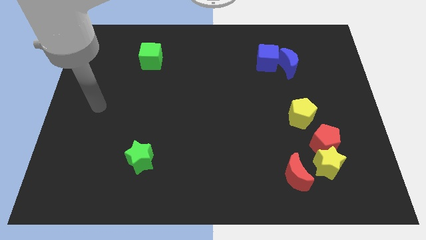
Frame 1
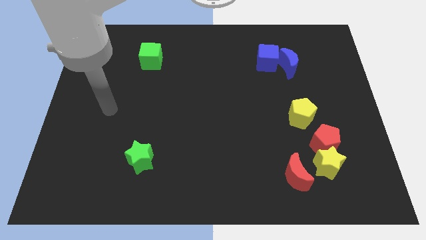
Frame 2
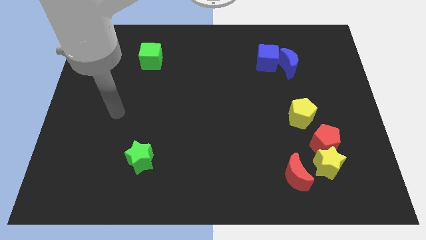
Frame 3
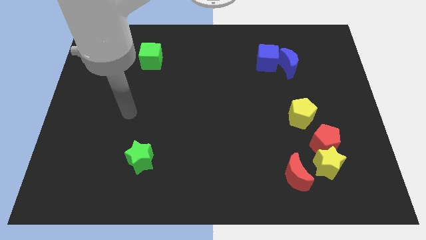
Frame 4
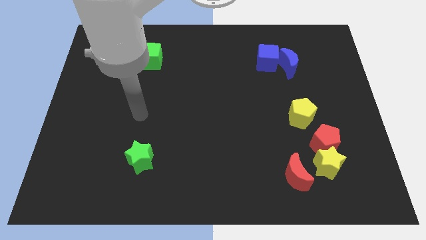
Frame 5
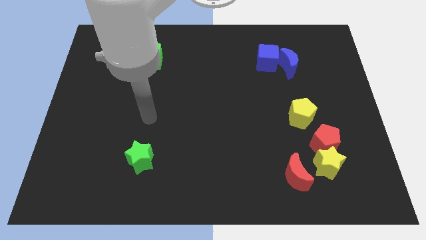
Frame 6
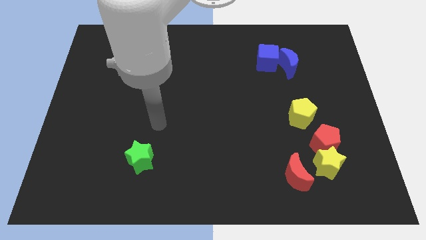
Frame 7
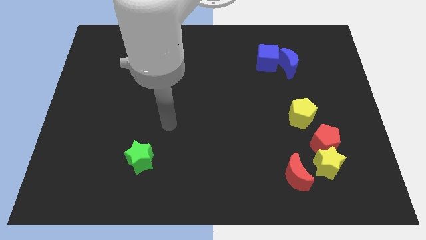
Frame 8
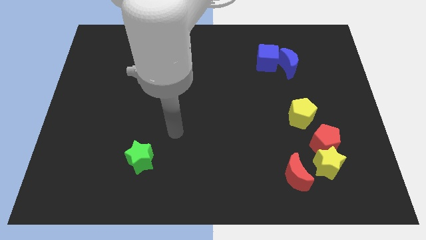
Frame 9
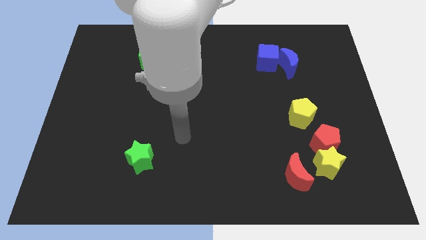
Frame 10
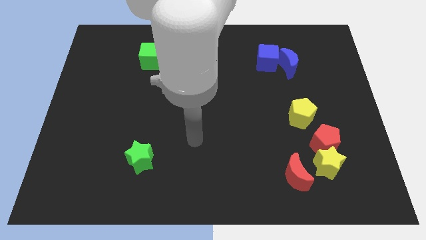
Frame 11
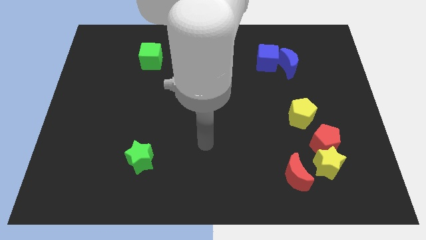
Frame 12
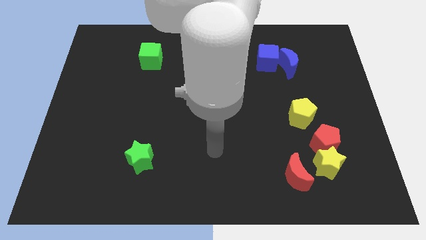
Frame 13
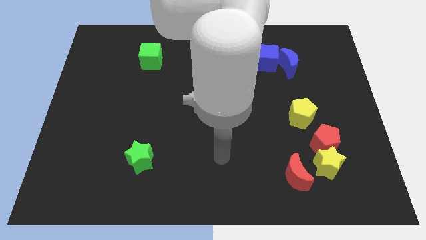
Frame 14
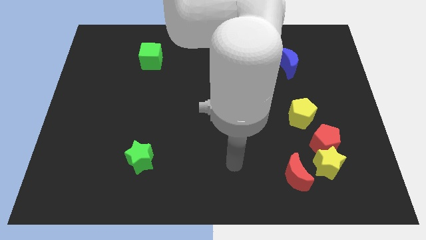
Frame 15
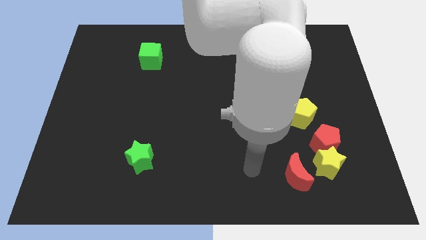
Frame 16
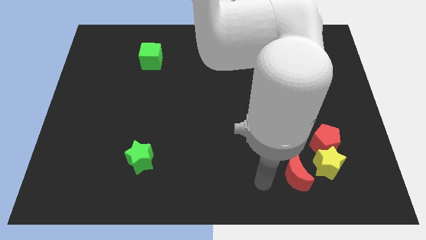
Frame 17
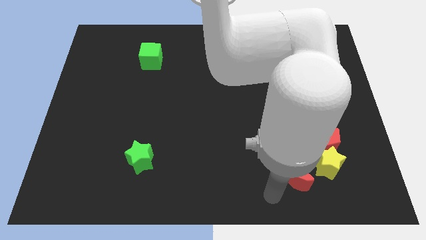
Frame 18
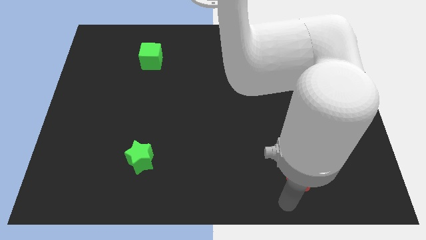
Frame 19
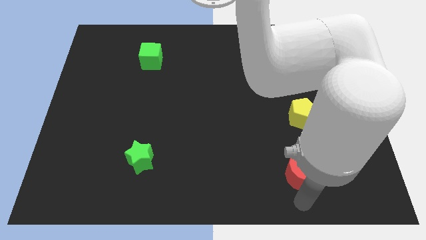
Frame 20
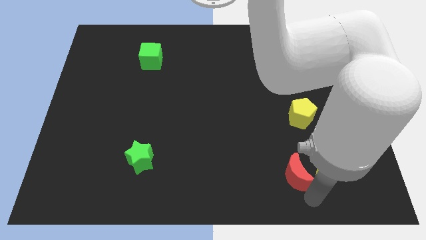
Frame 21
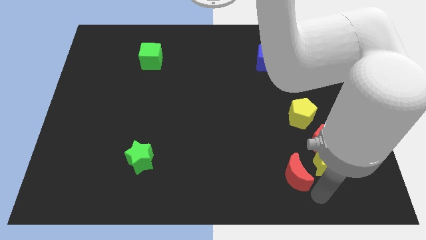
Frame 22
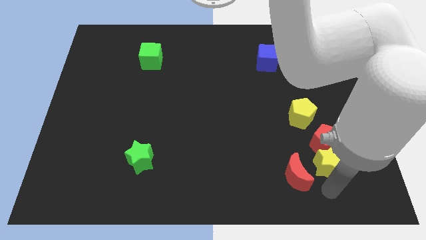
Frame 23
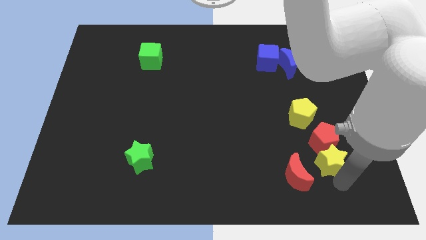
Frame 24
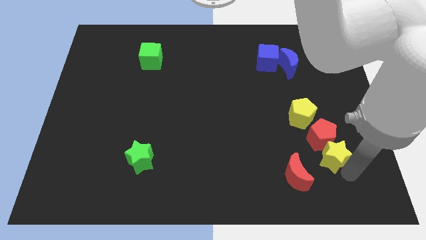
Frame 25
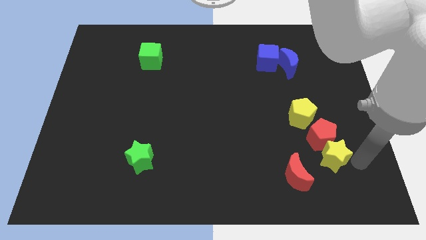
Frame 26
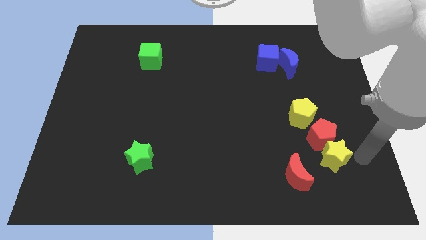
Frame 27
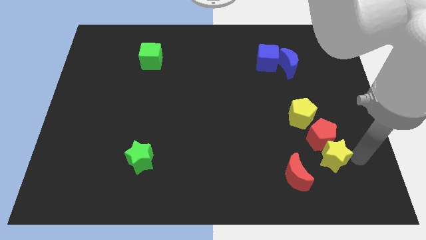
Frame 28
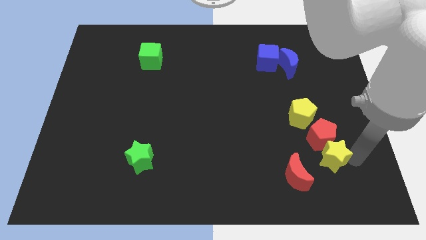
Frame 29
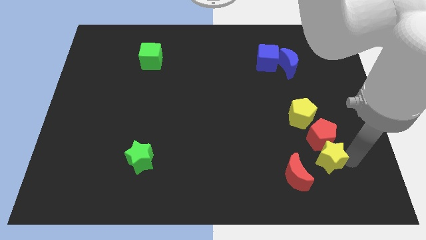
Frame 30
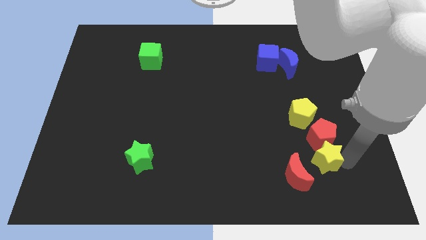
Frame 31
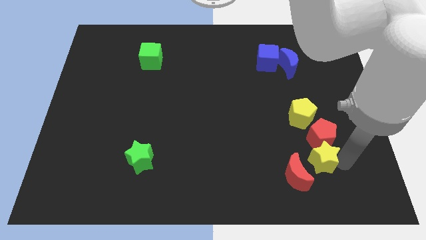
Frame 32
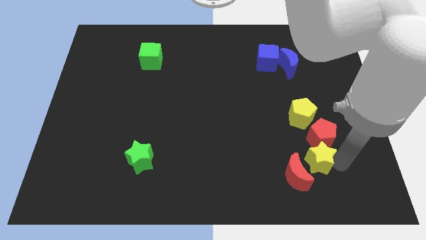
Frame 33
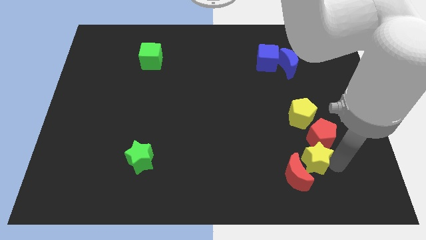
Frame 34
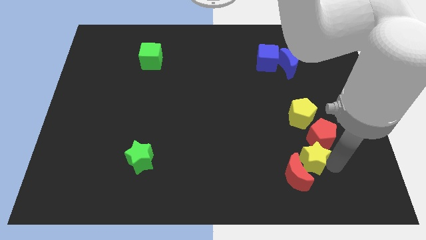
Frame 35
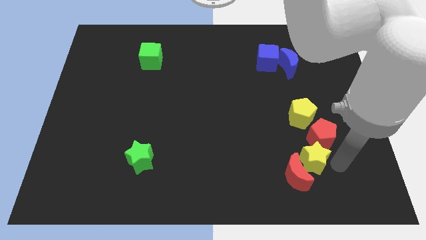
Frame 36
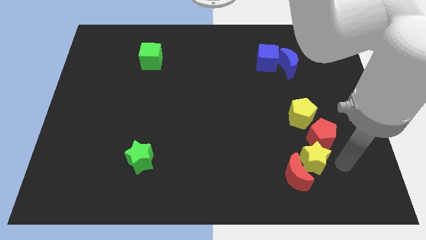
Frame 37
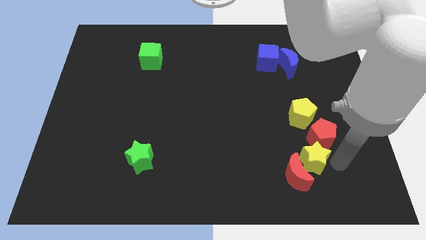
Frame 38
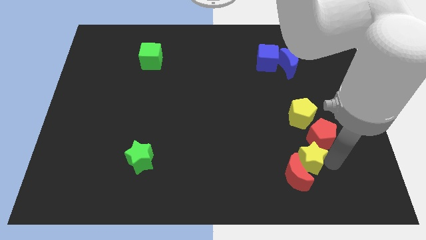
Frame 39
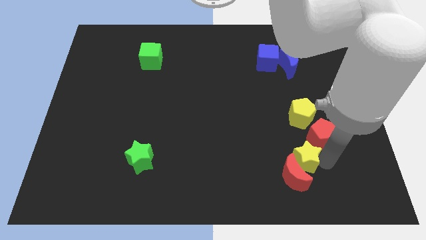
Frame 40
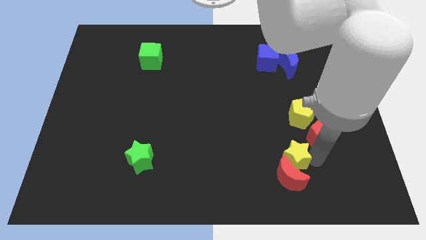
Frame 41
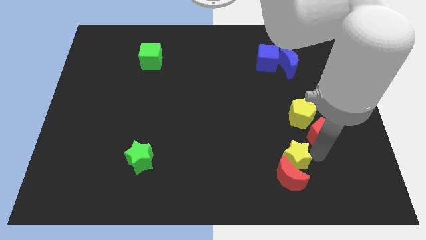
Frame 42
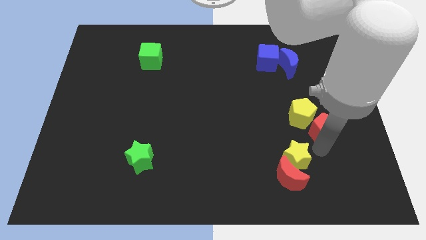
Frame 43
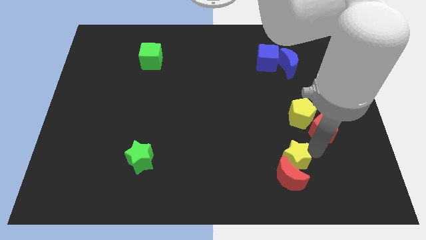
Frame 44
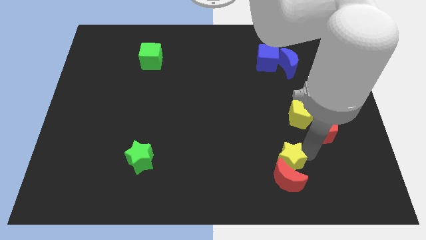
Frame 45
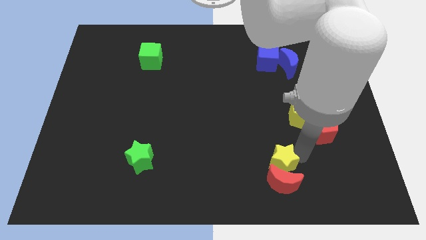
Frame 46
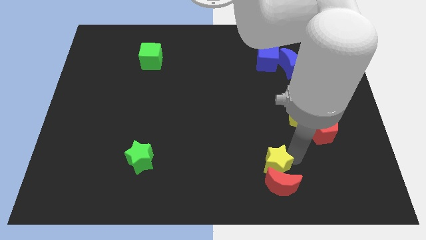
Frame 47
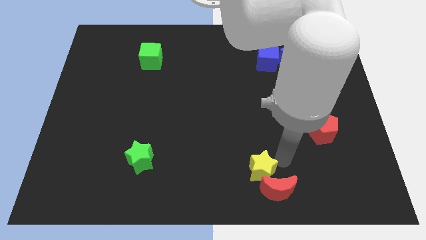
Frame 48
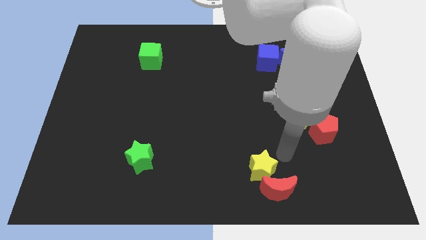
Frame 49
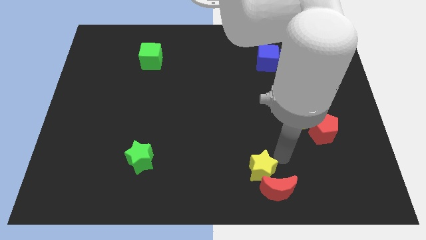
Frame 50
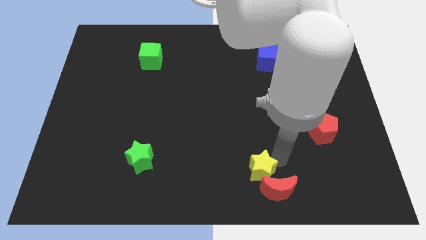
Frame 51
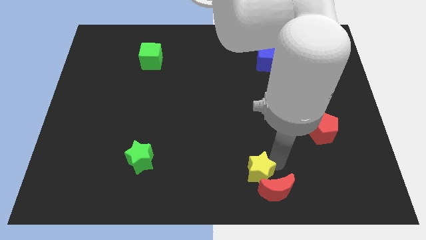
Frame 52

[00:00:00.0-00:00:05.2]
move the yellow star to the left side of the red moon

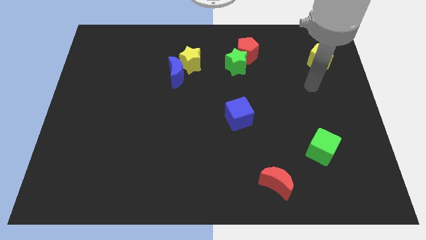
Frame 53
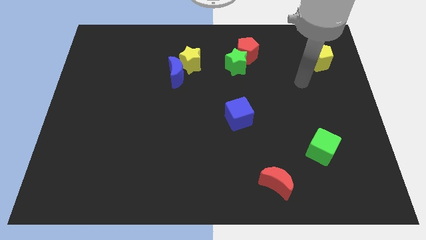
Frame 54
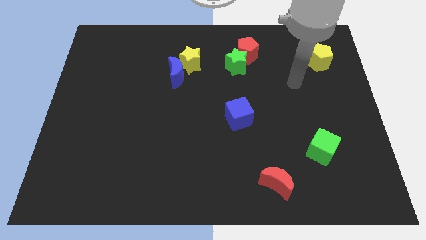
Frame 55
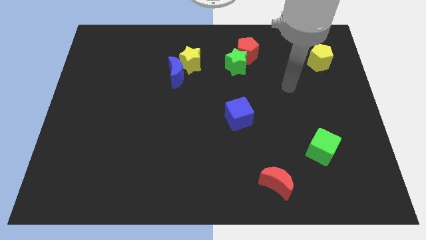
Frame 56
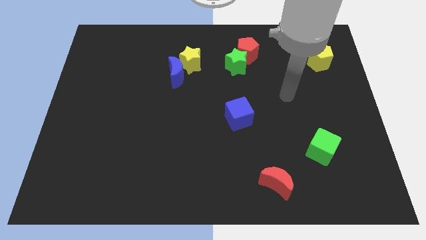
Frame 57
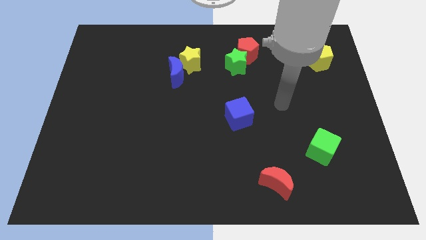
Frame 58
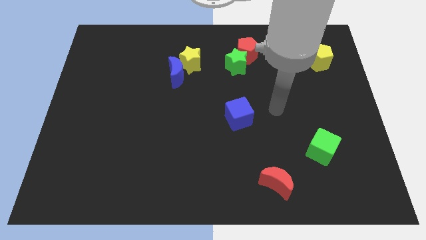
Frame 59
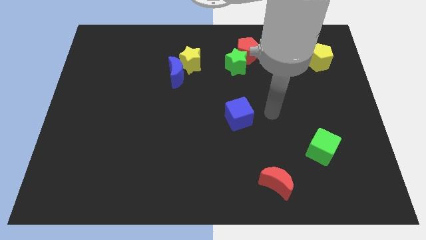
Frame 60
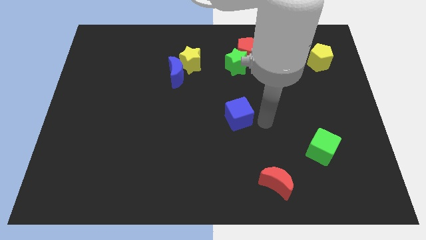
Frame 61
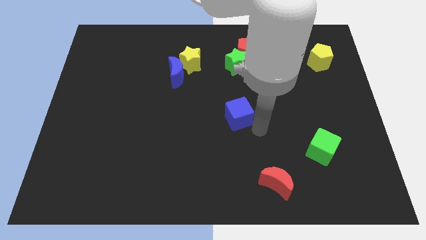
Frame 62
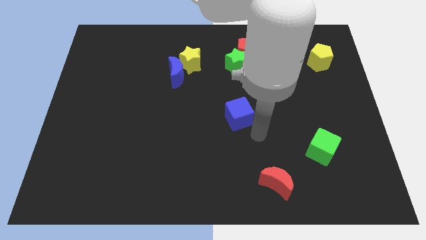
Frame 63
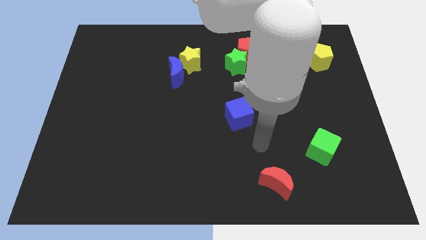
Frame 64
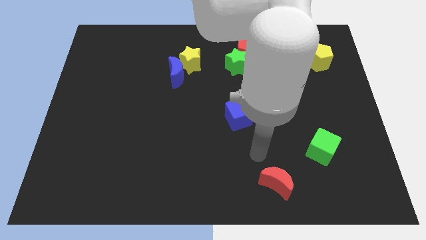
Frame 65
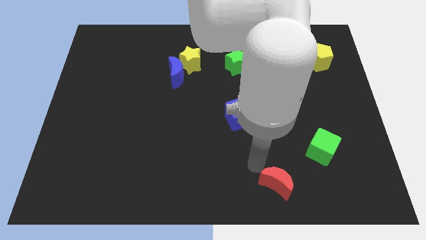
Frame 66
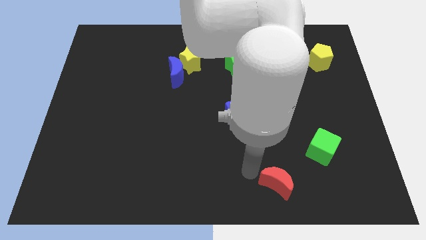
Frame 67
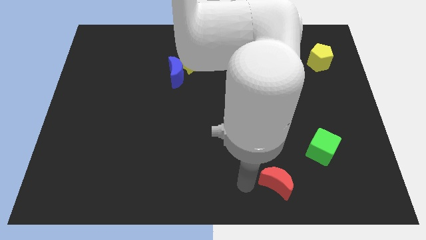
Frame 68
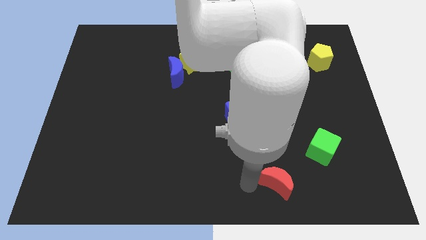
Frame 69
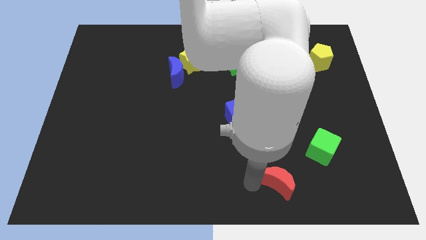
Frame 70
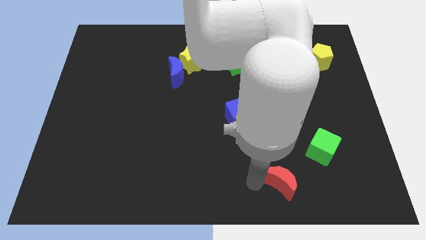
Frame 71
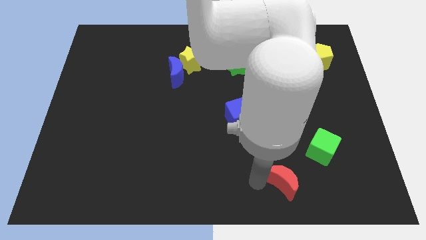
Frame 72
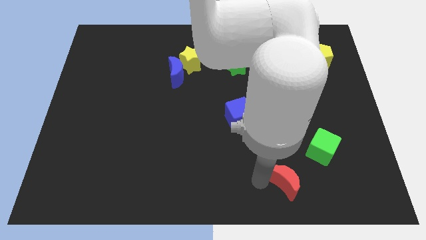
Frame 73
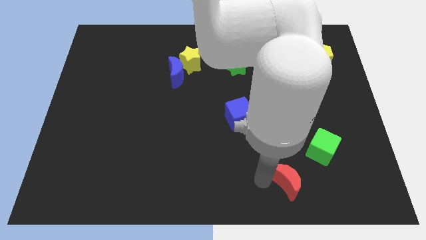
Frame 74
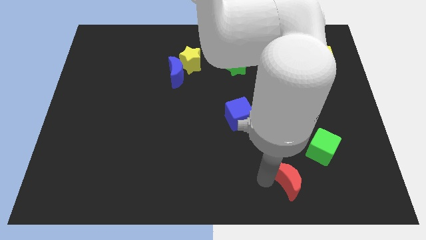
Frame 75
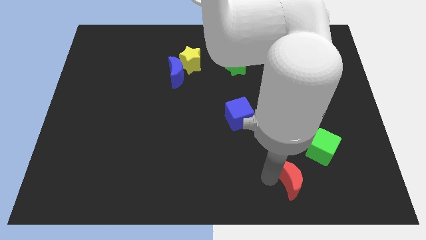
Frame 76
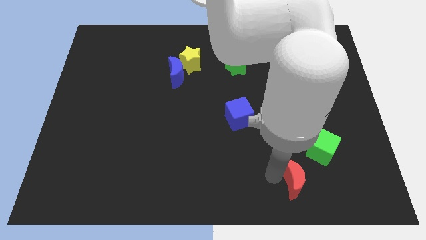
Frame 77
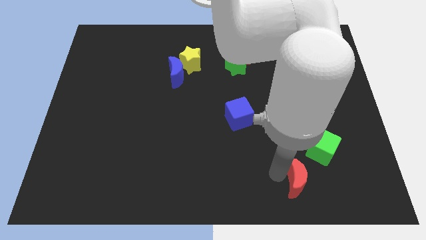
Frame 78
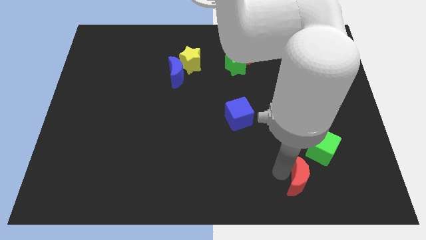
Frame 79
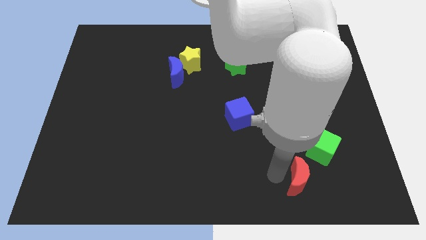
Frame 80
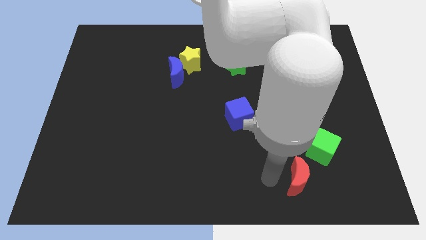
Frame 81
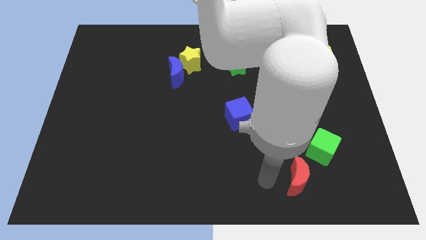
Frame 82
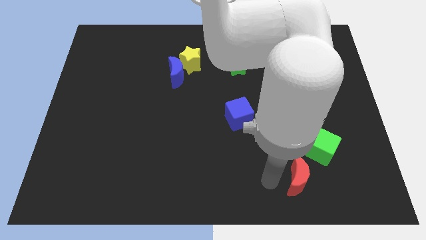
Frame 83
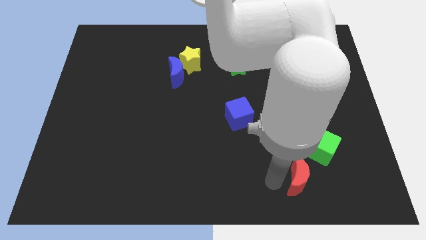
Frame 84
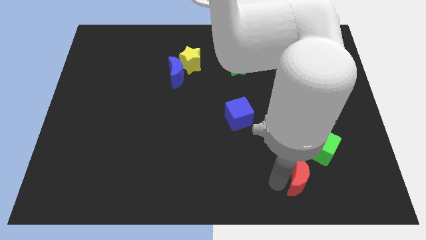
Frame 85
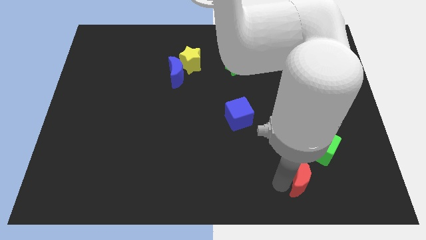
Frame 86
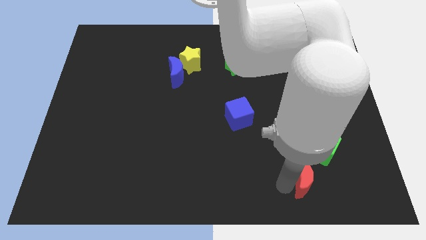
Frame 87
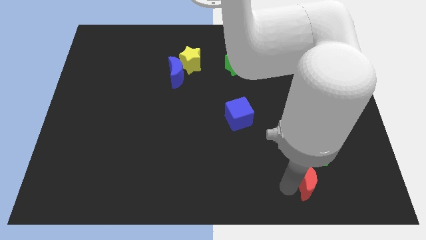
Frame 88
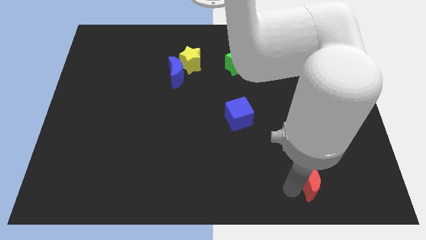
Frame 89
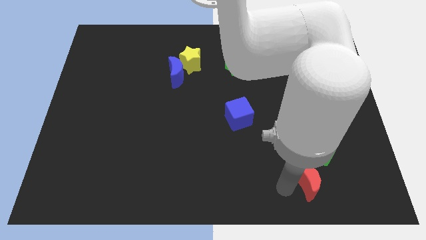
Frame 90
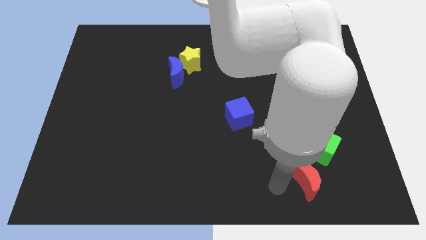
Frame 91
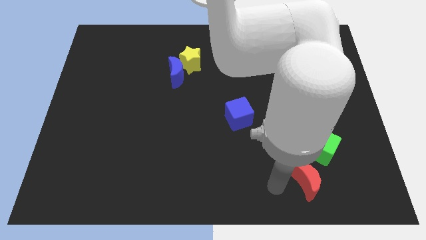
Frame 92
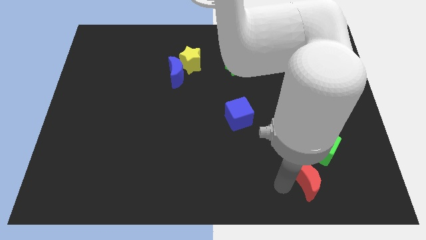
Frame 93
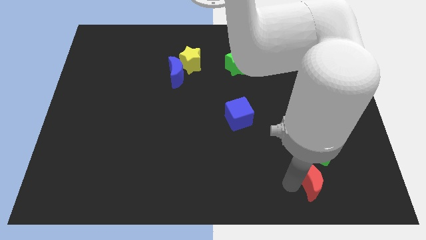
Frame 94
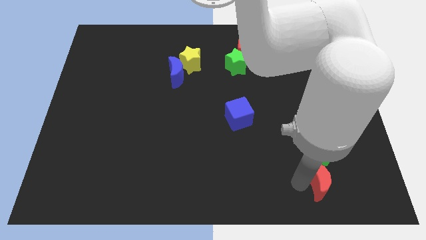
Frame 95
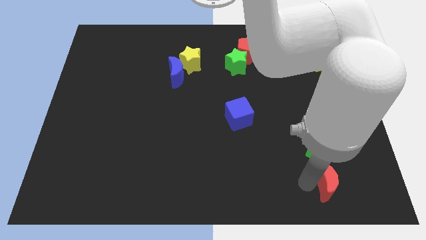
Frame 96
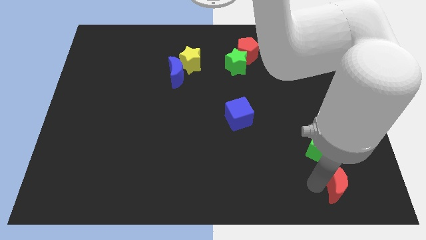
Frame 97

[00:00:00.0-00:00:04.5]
push the red moon to the bottom right side of the green cube
